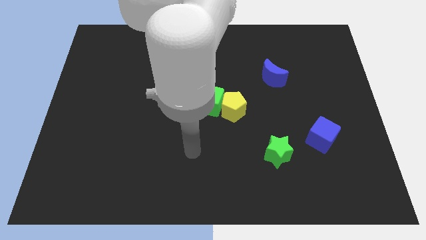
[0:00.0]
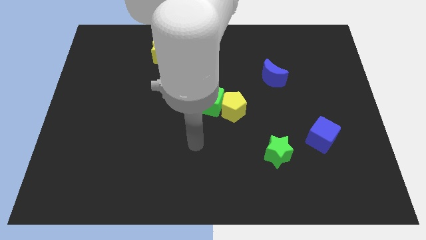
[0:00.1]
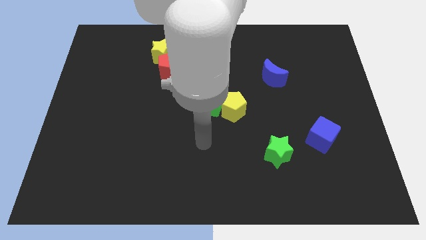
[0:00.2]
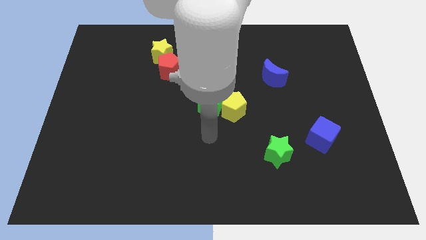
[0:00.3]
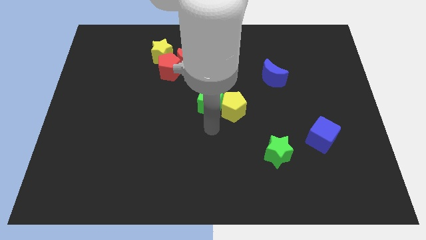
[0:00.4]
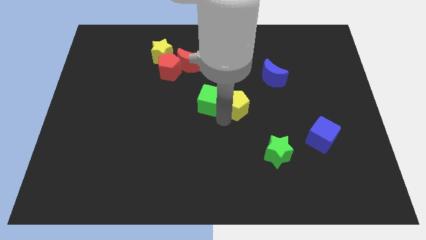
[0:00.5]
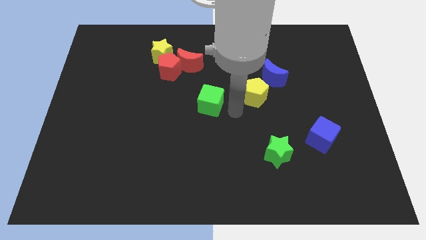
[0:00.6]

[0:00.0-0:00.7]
pull the green cube apart from the yellow pentagon

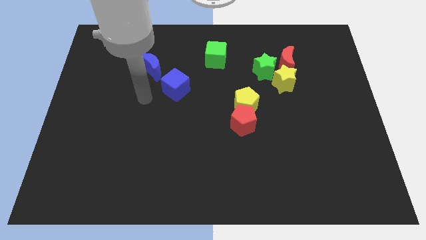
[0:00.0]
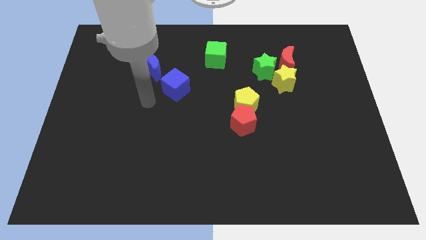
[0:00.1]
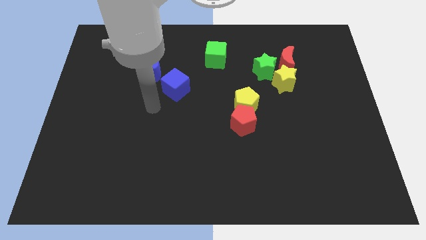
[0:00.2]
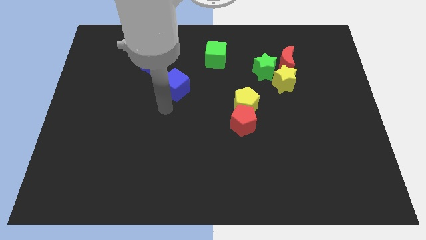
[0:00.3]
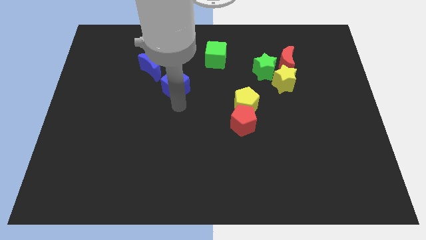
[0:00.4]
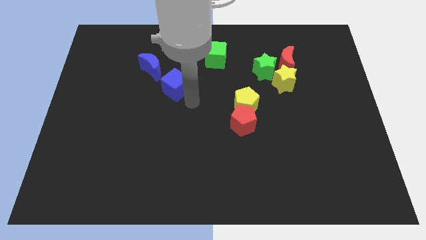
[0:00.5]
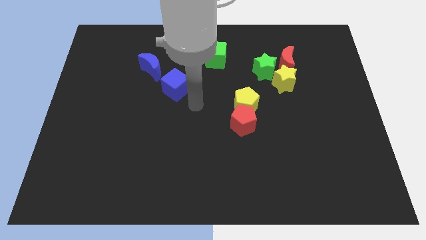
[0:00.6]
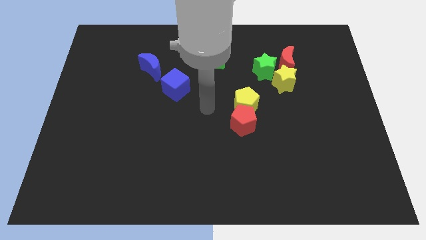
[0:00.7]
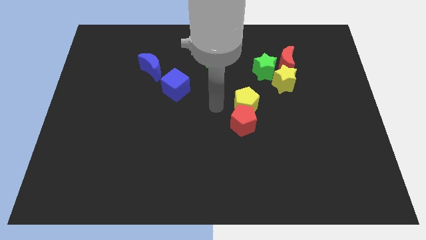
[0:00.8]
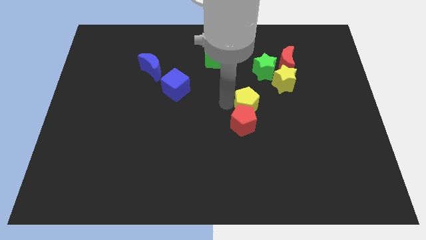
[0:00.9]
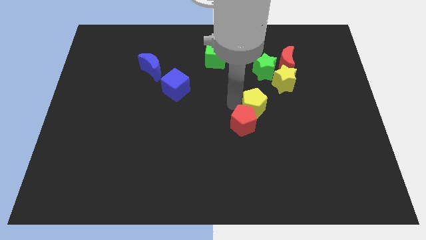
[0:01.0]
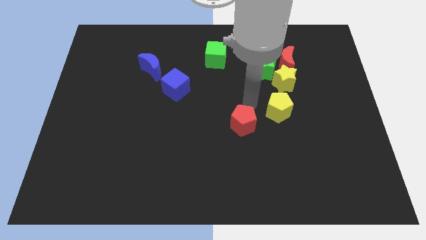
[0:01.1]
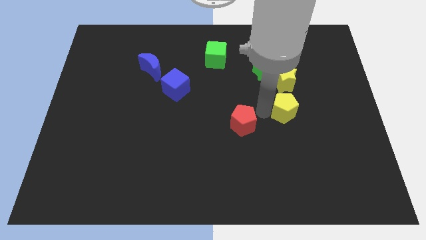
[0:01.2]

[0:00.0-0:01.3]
move the red pentagon away from the yellow pentagon

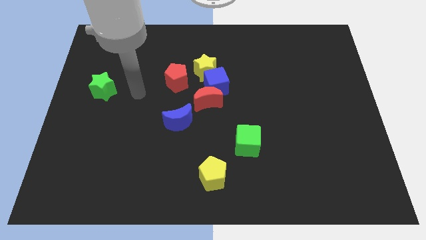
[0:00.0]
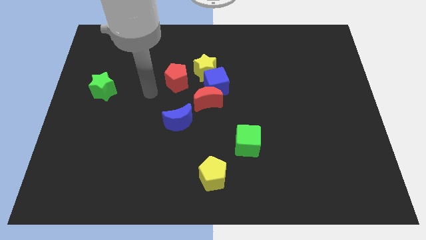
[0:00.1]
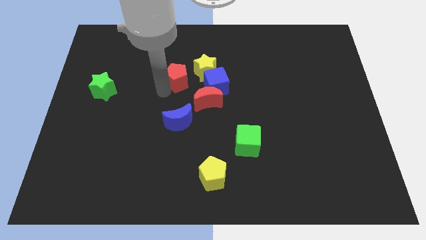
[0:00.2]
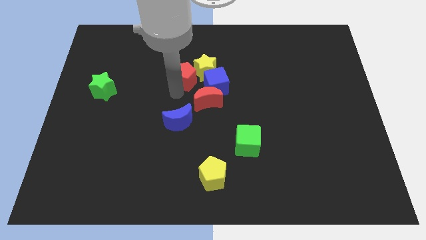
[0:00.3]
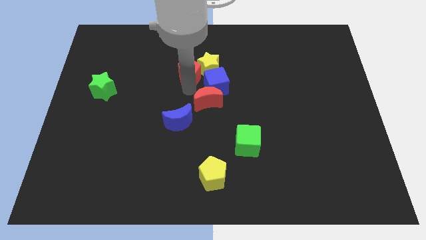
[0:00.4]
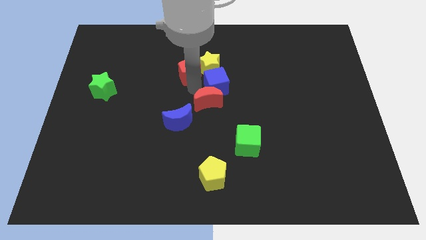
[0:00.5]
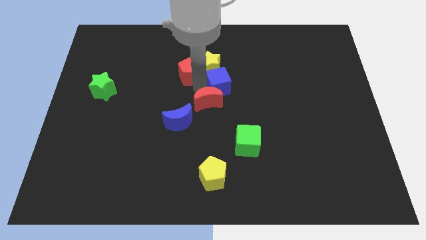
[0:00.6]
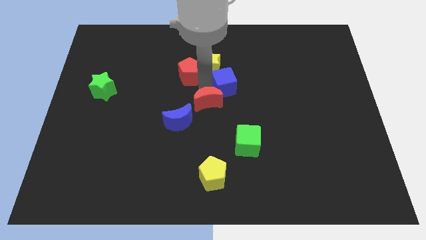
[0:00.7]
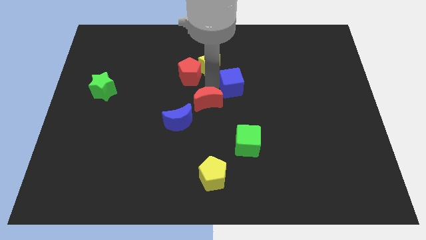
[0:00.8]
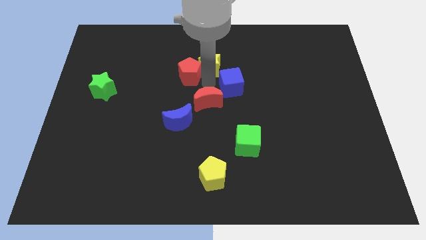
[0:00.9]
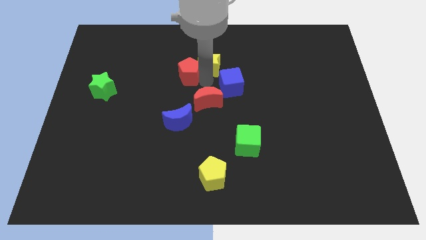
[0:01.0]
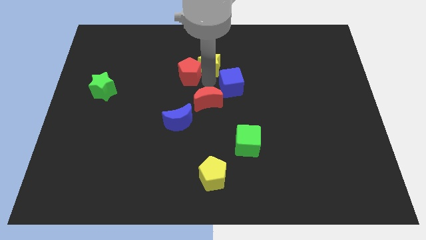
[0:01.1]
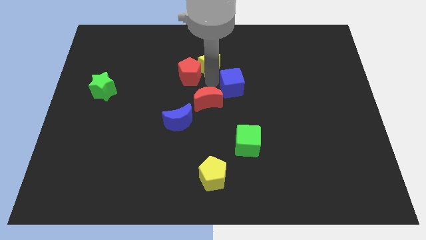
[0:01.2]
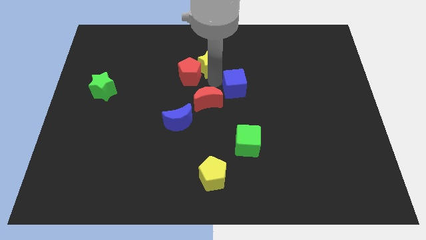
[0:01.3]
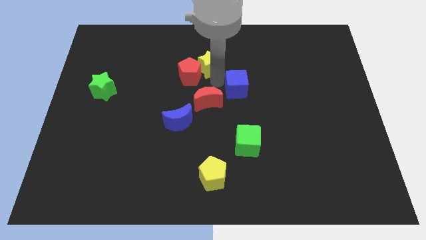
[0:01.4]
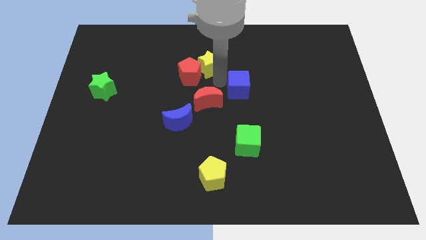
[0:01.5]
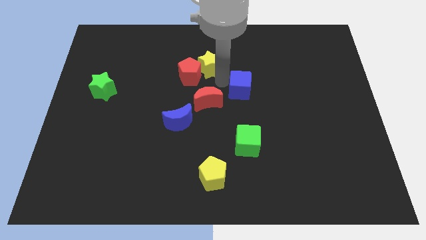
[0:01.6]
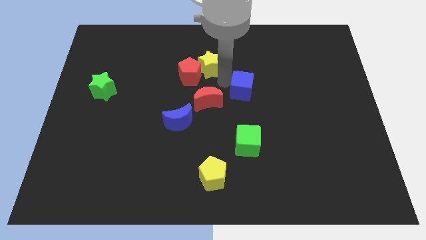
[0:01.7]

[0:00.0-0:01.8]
separate the blue cube from the red moon, yellow star, and red pentagon

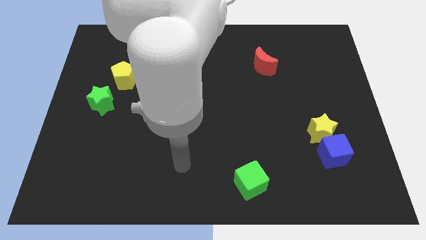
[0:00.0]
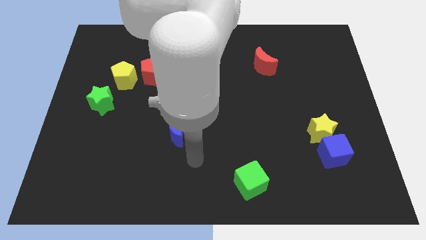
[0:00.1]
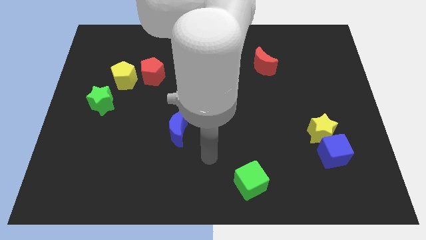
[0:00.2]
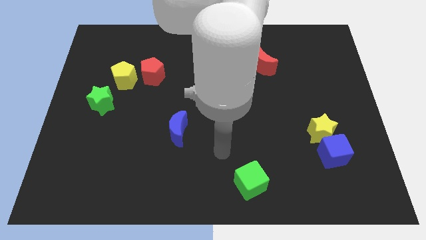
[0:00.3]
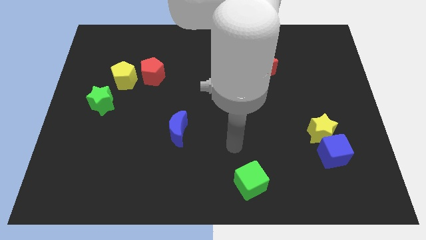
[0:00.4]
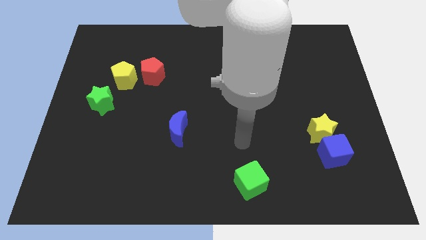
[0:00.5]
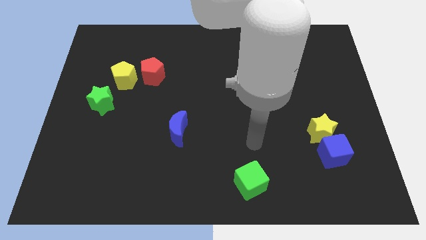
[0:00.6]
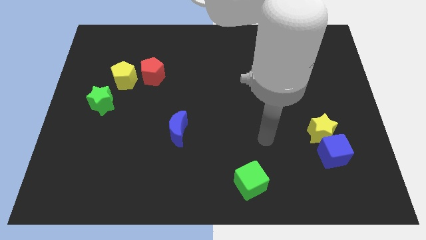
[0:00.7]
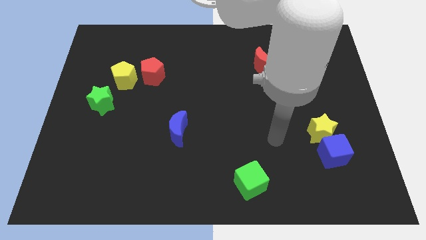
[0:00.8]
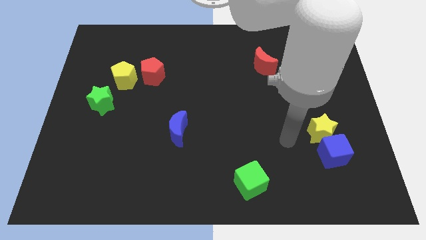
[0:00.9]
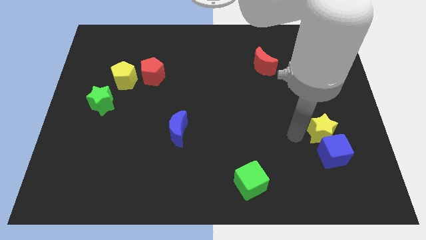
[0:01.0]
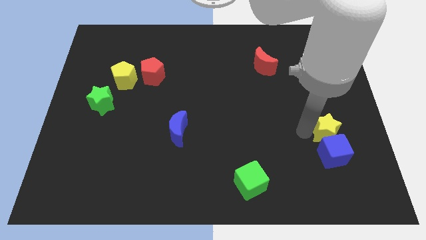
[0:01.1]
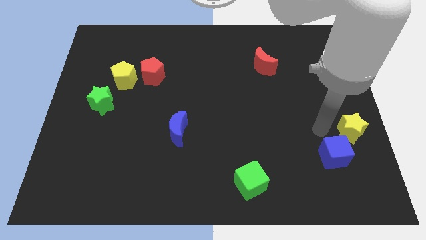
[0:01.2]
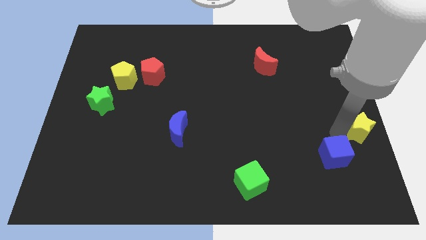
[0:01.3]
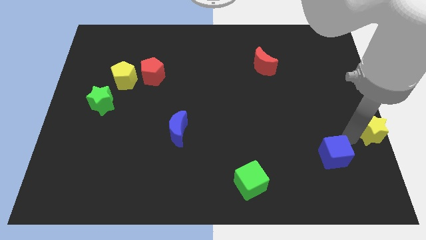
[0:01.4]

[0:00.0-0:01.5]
move the blue cube away from the yellow star

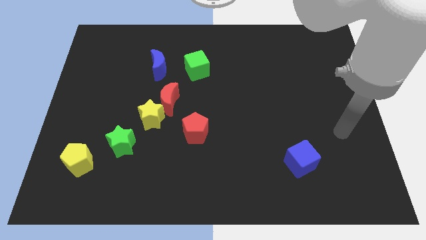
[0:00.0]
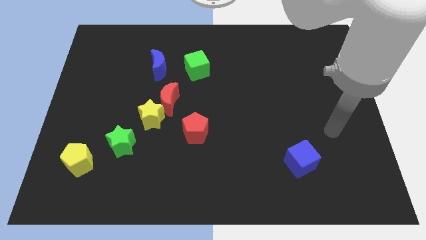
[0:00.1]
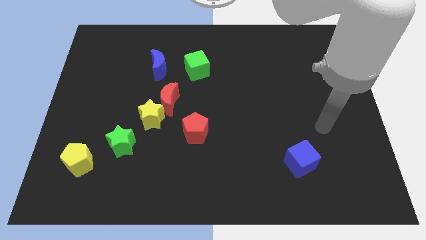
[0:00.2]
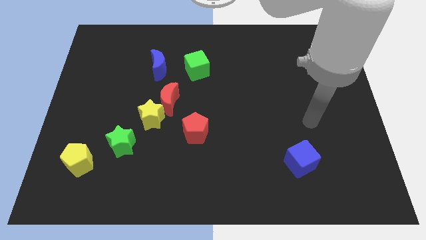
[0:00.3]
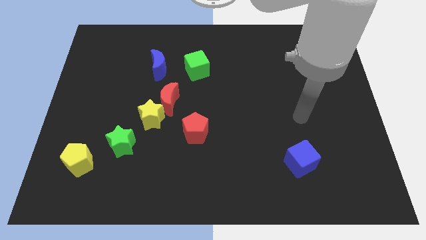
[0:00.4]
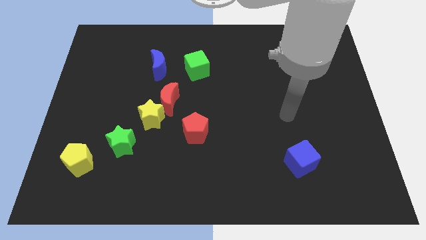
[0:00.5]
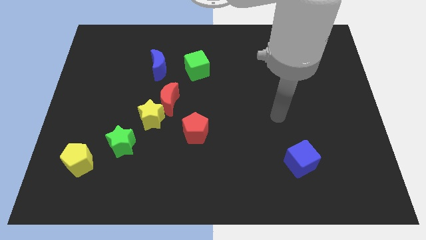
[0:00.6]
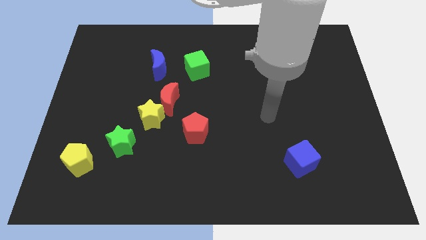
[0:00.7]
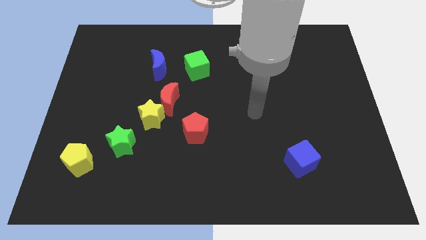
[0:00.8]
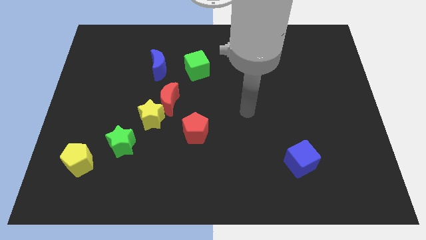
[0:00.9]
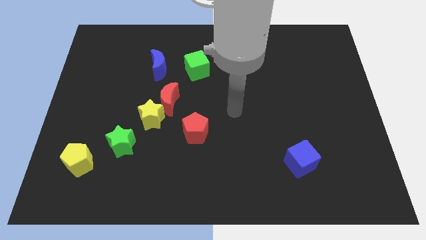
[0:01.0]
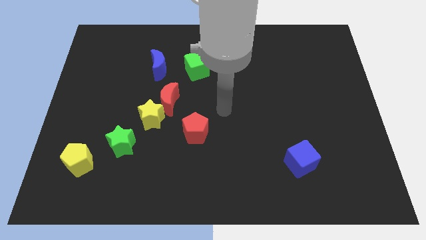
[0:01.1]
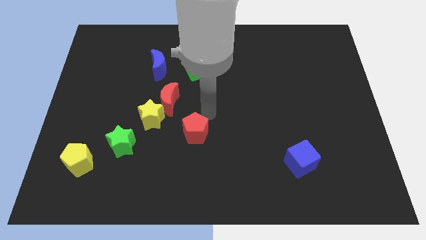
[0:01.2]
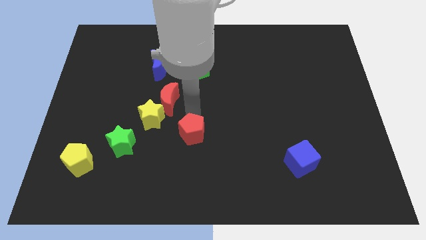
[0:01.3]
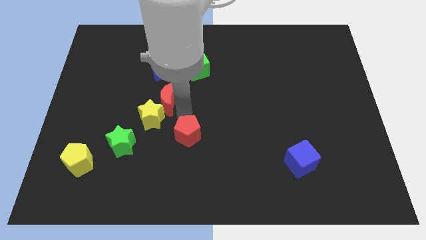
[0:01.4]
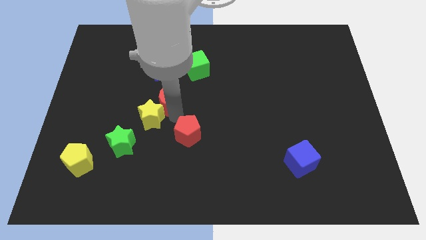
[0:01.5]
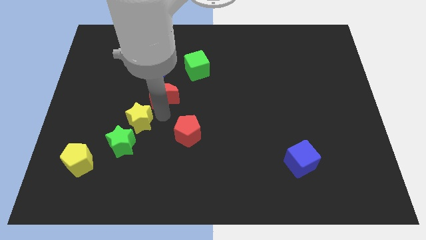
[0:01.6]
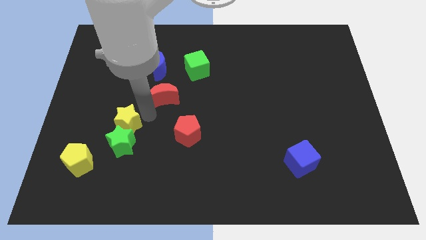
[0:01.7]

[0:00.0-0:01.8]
separate the red moon from the yellow star

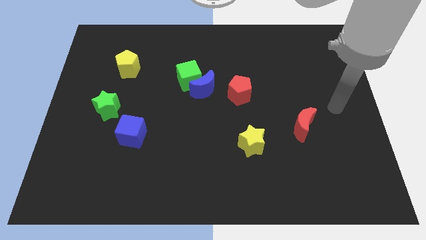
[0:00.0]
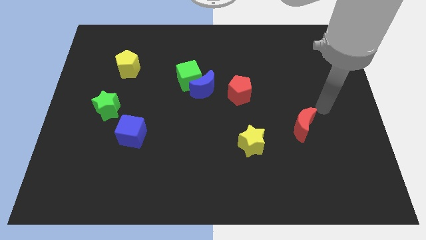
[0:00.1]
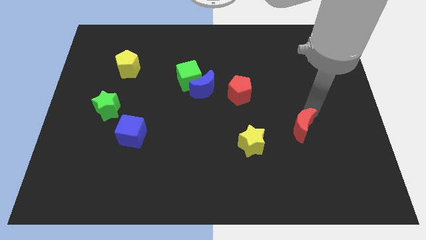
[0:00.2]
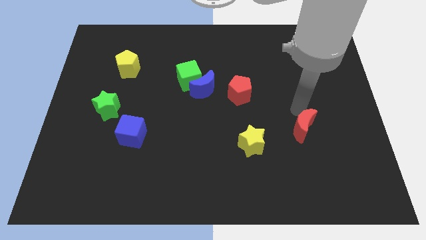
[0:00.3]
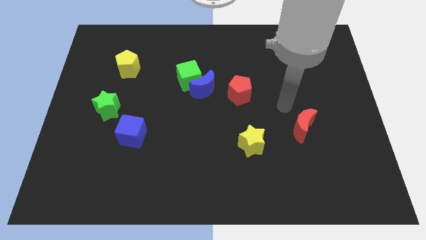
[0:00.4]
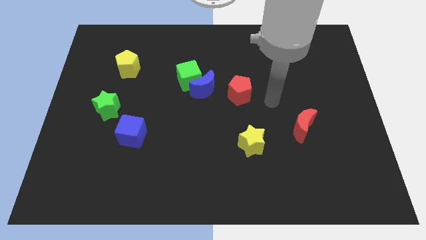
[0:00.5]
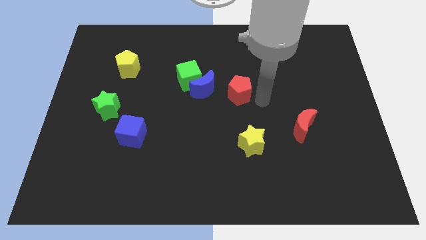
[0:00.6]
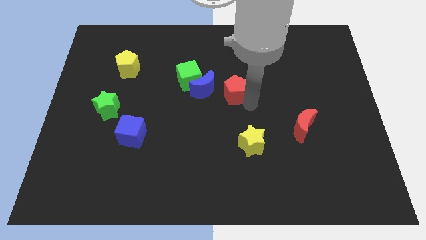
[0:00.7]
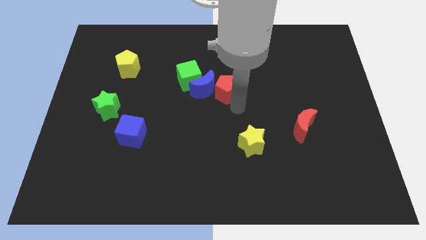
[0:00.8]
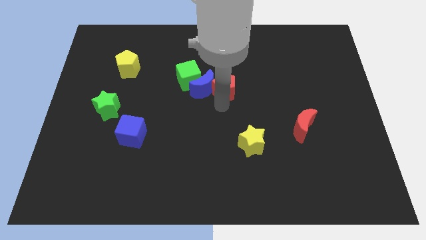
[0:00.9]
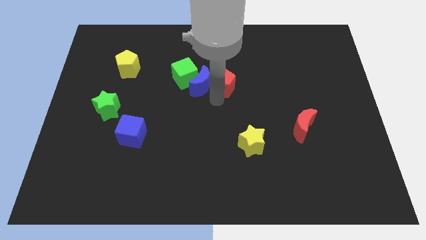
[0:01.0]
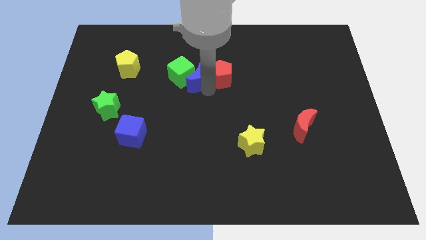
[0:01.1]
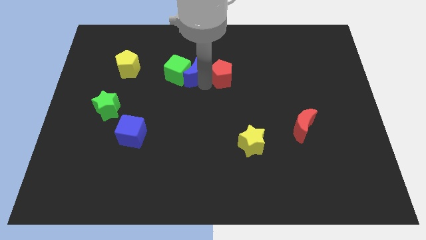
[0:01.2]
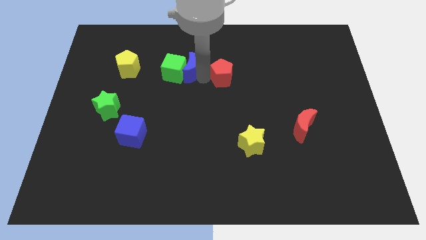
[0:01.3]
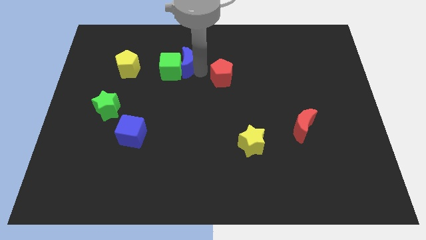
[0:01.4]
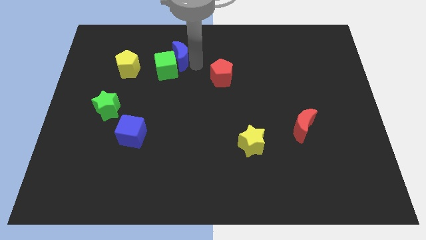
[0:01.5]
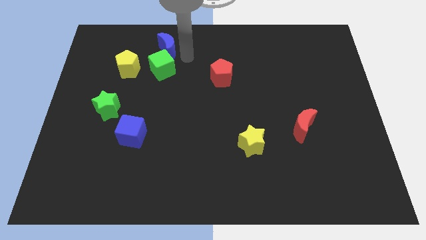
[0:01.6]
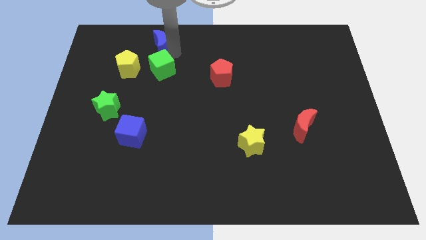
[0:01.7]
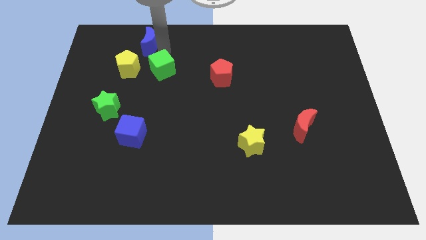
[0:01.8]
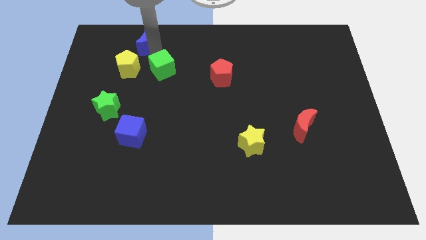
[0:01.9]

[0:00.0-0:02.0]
separate the green cube from the blue moon
